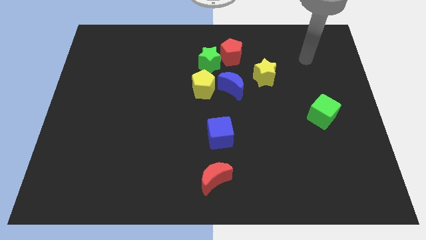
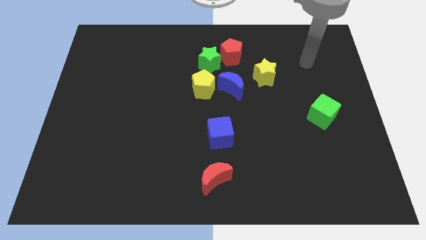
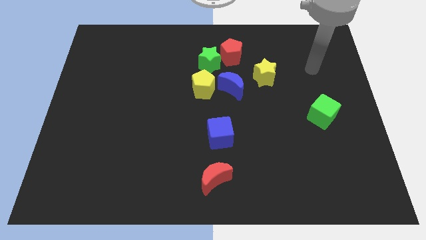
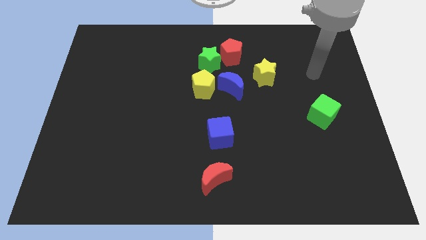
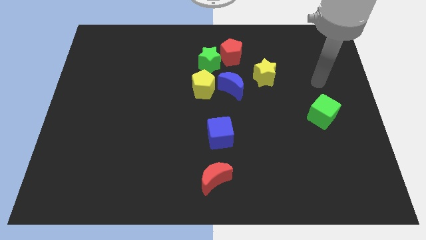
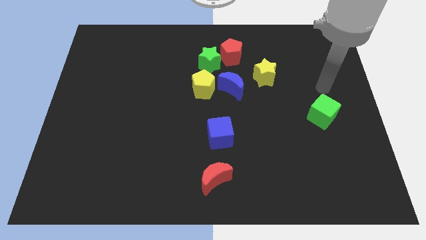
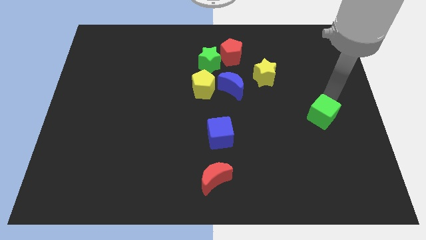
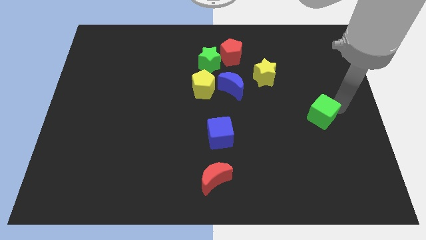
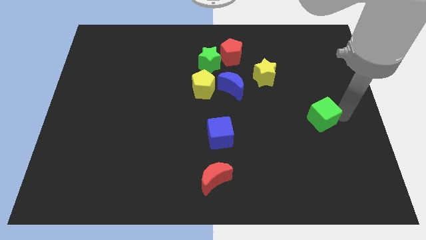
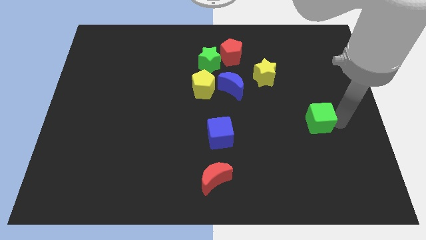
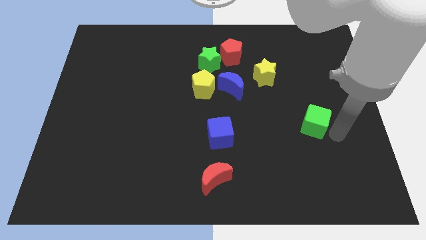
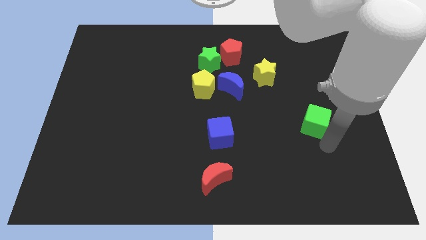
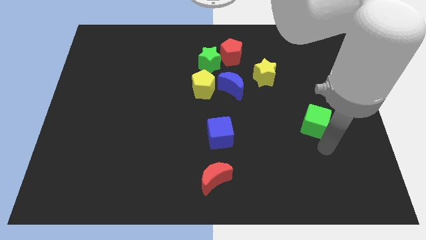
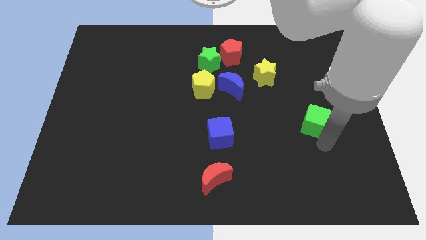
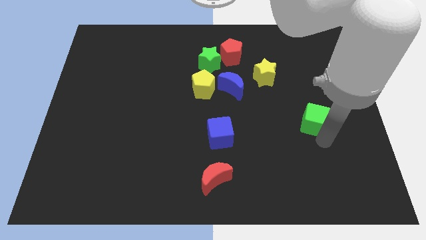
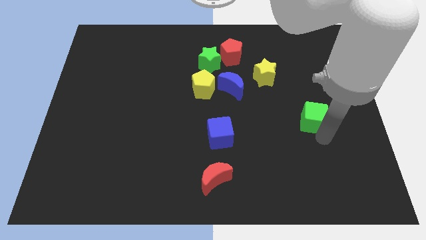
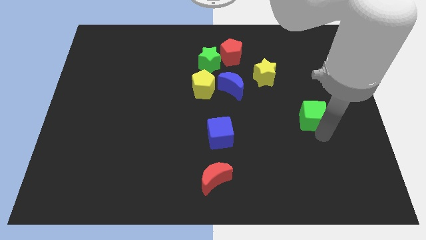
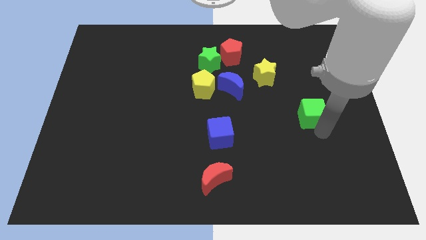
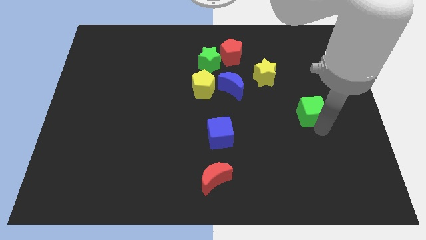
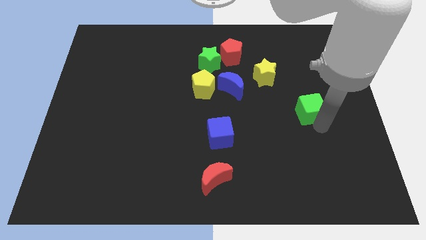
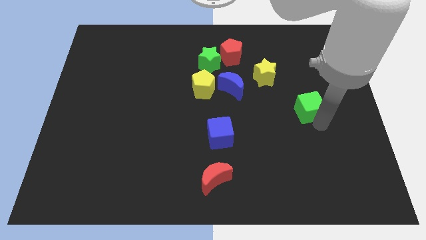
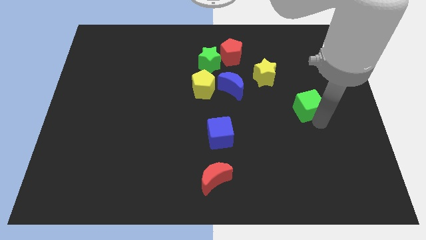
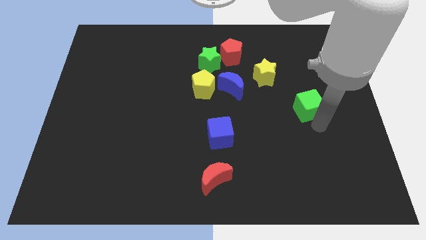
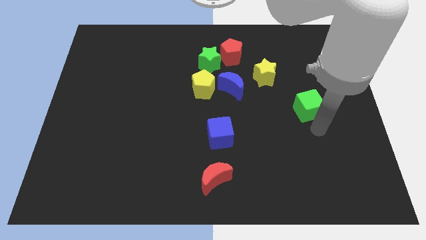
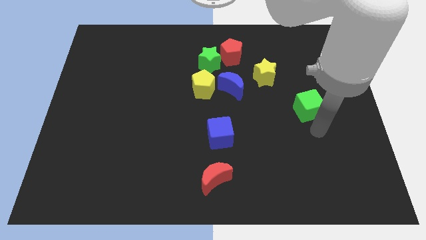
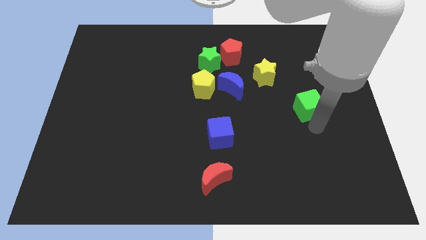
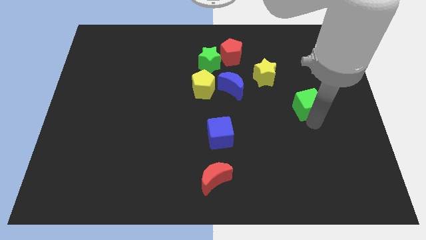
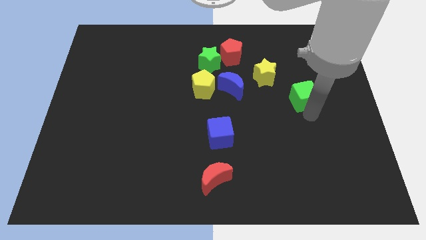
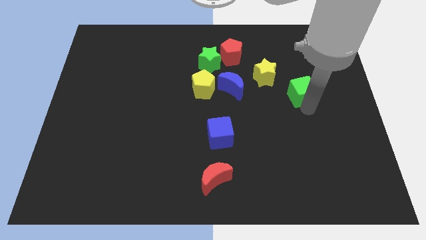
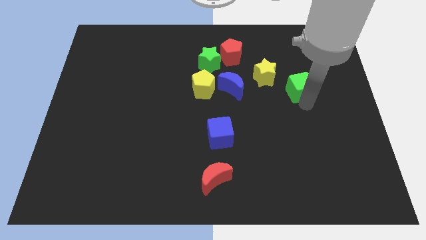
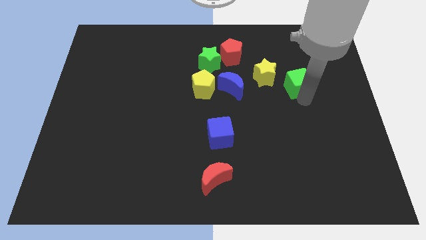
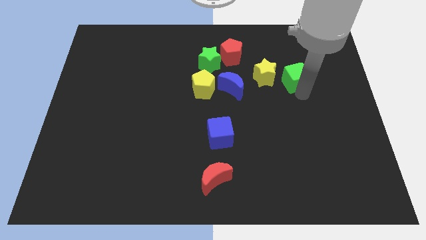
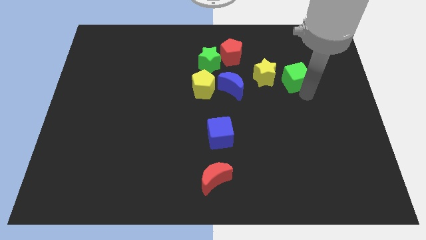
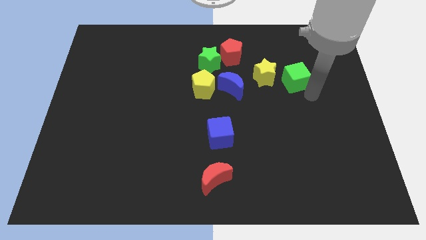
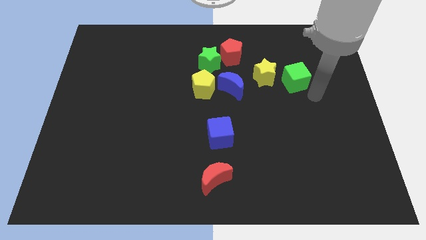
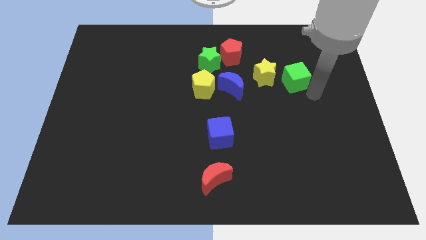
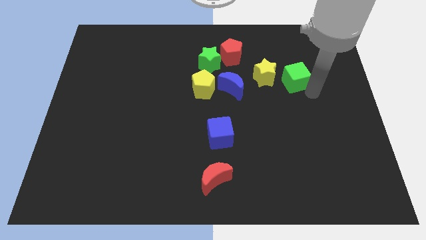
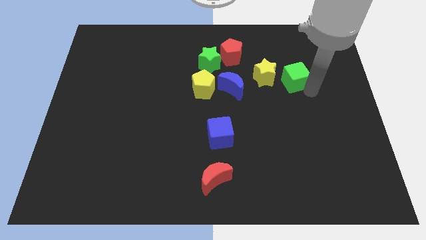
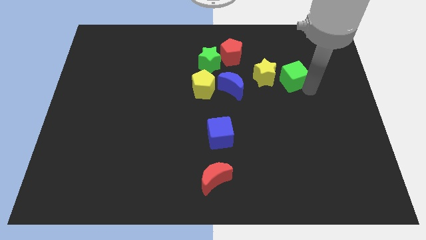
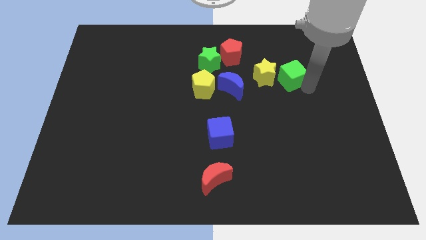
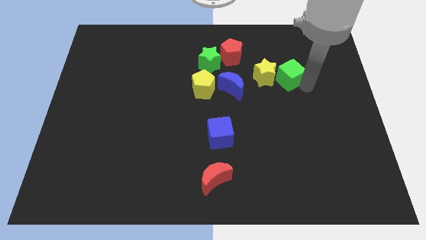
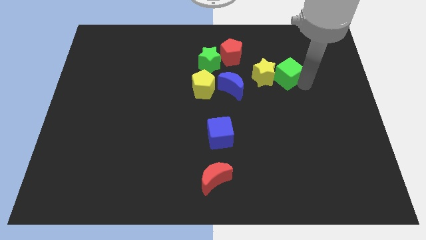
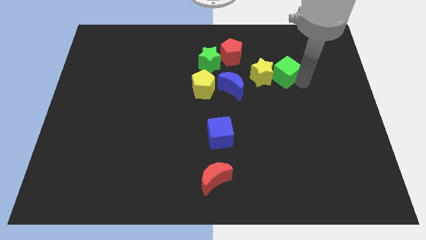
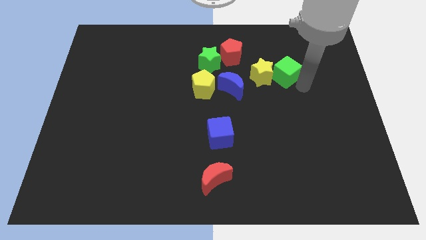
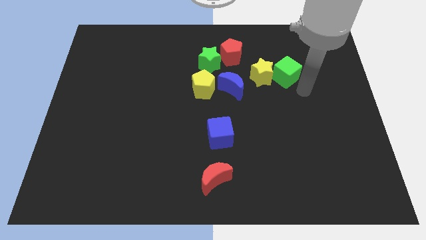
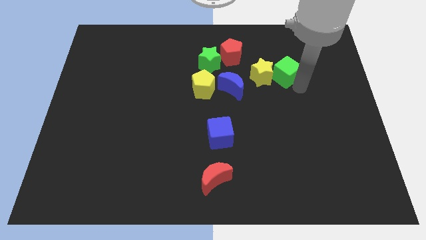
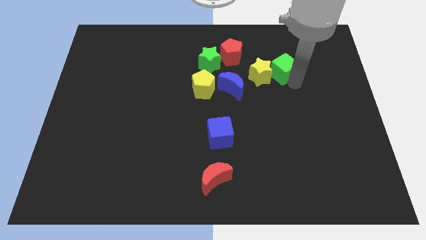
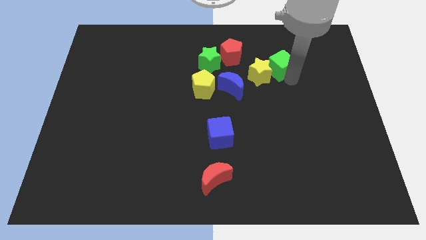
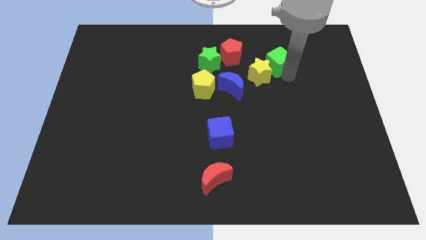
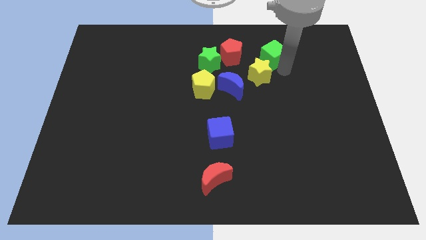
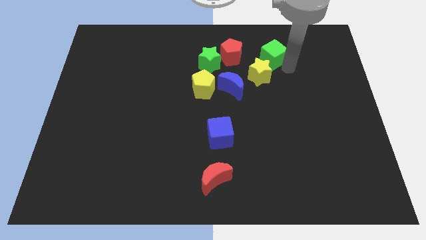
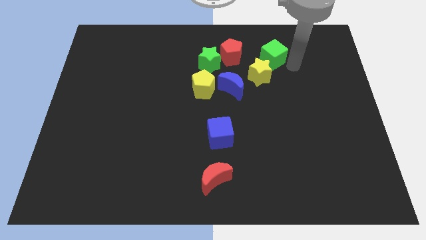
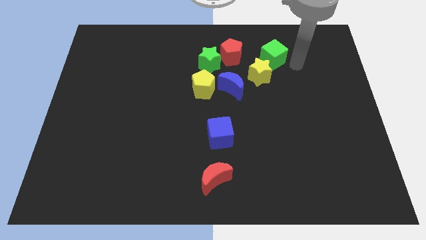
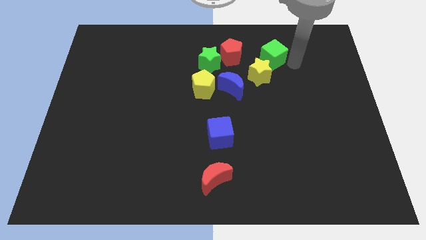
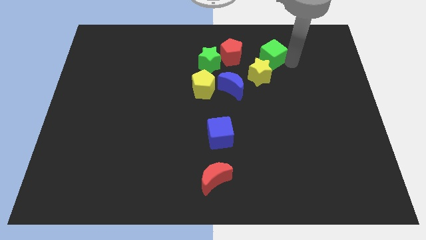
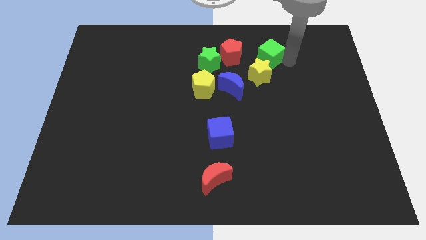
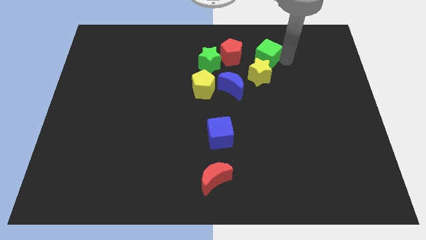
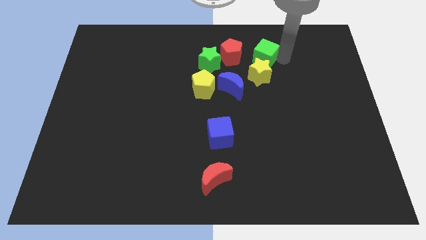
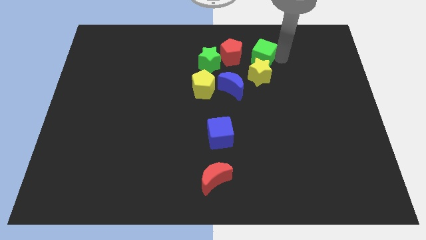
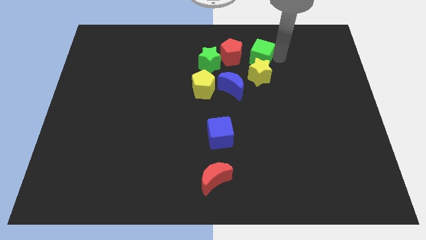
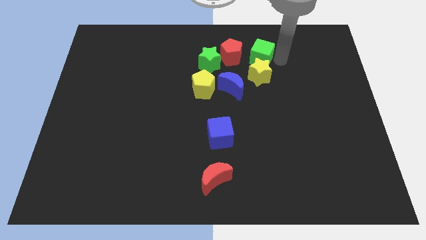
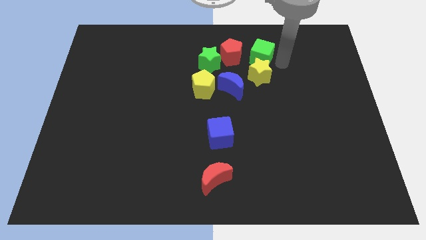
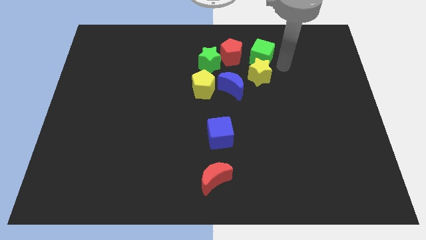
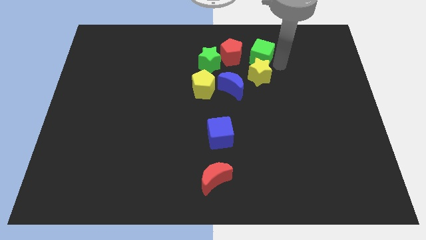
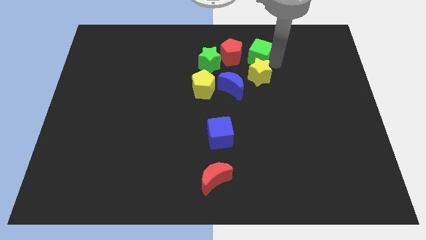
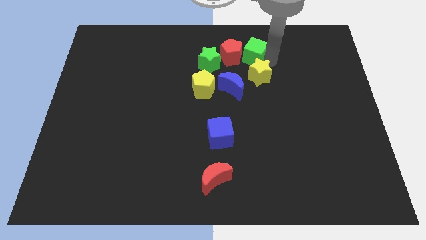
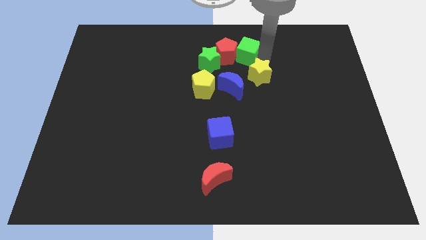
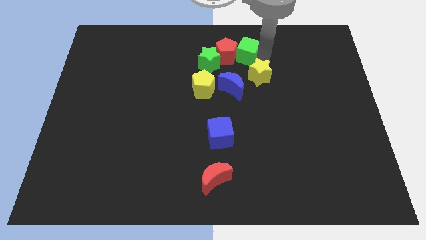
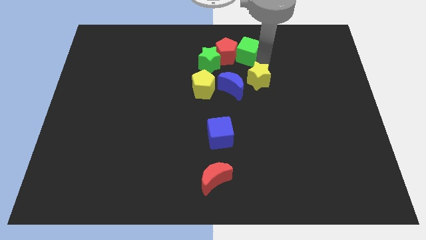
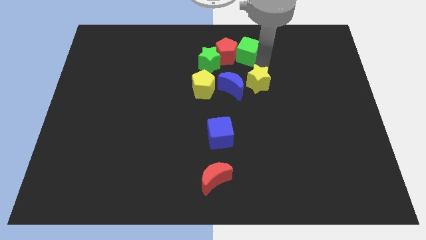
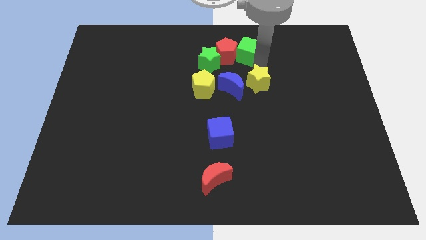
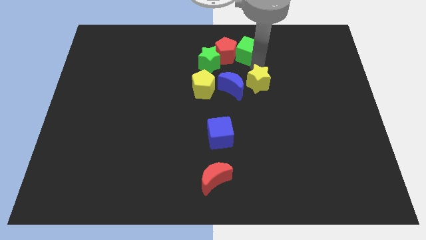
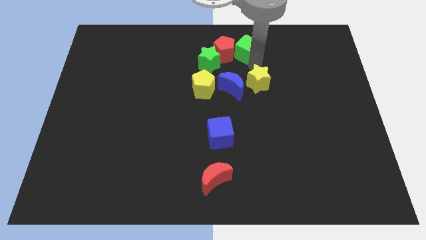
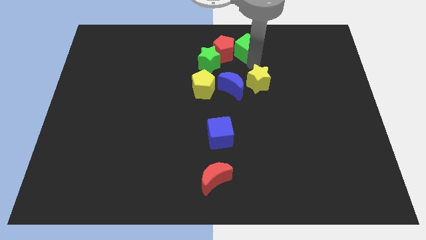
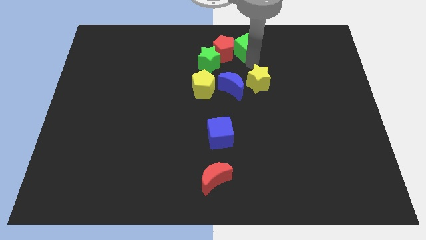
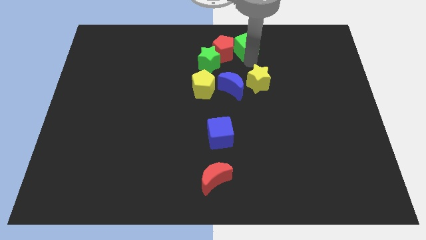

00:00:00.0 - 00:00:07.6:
put the green cube to the top
